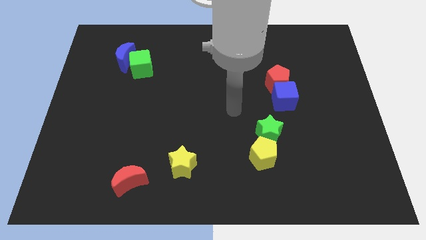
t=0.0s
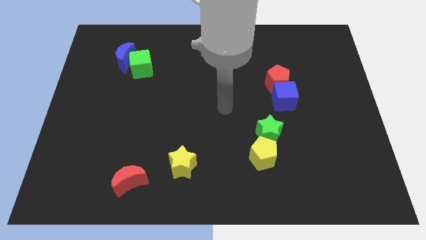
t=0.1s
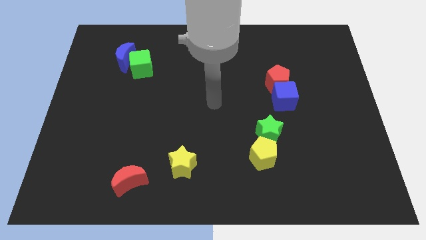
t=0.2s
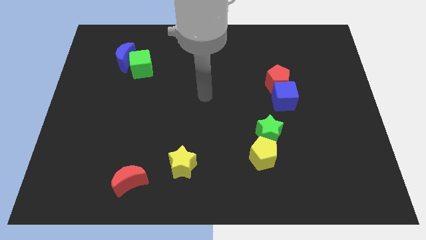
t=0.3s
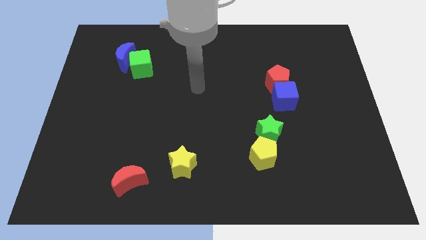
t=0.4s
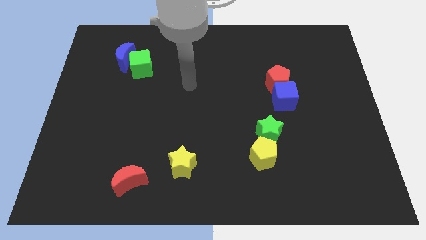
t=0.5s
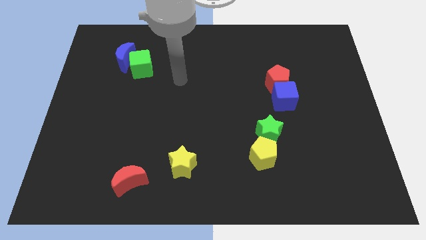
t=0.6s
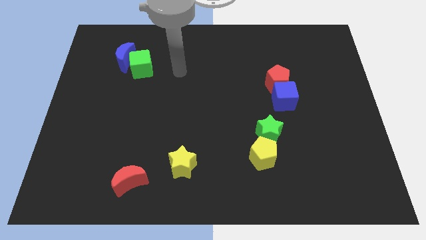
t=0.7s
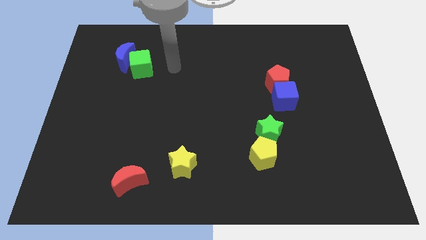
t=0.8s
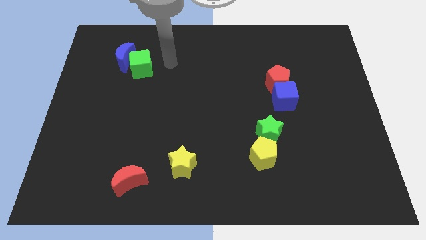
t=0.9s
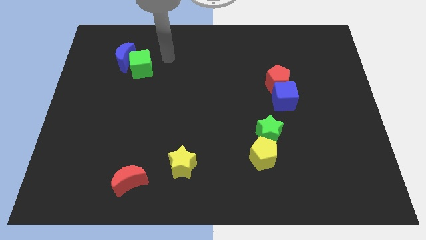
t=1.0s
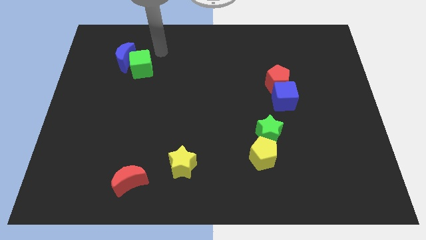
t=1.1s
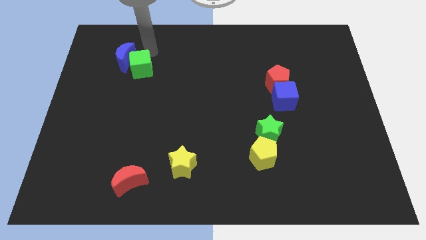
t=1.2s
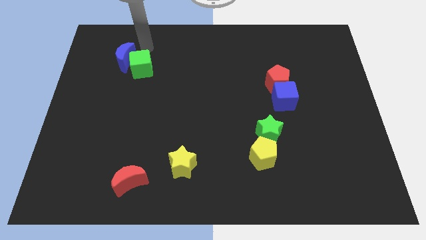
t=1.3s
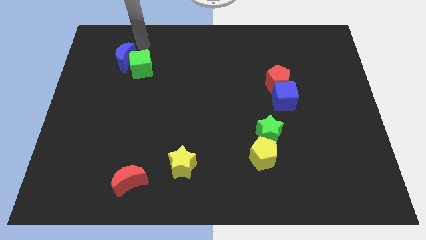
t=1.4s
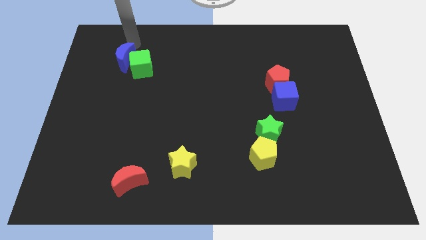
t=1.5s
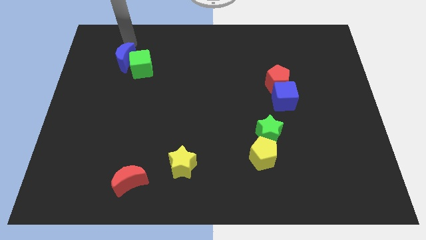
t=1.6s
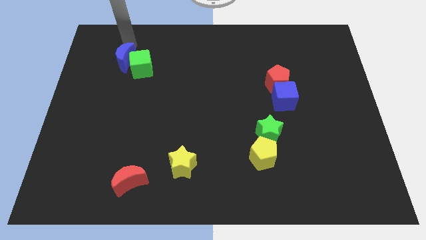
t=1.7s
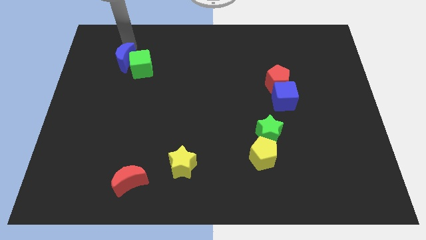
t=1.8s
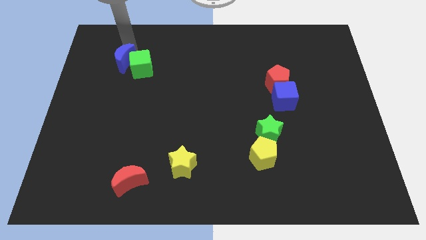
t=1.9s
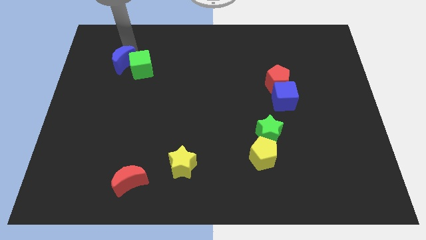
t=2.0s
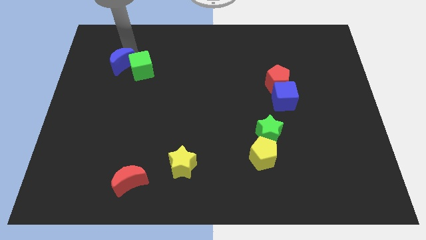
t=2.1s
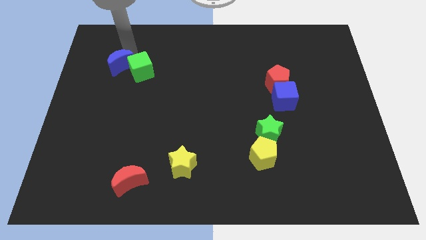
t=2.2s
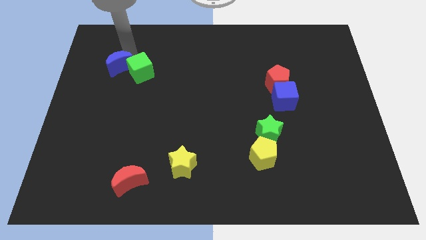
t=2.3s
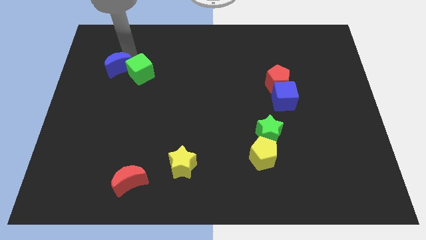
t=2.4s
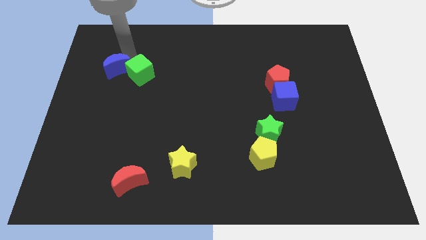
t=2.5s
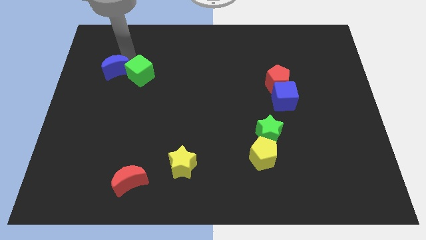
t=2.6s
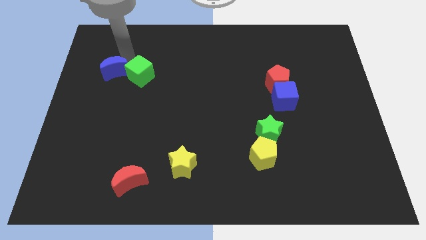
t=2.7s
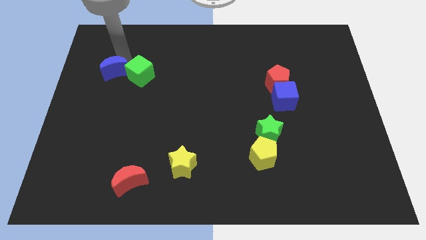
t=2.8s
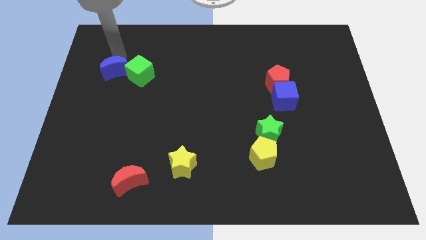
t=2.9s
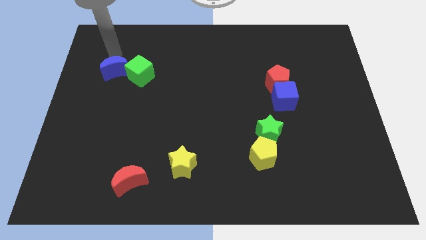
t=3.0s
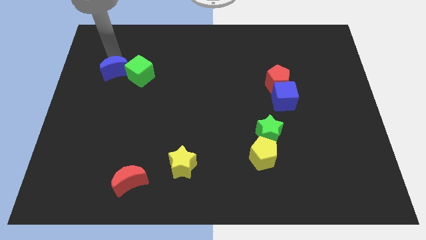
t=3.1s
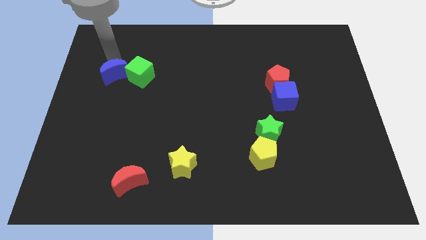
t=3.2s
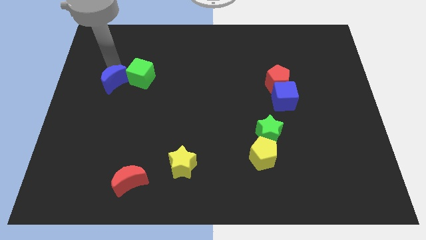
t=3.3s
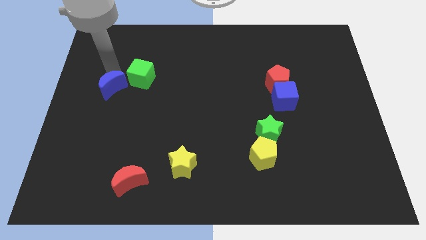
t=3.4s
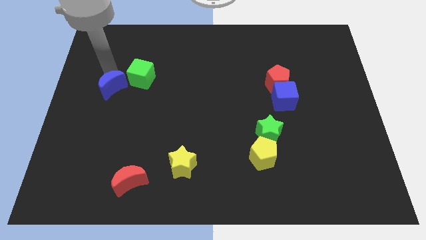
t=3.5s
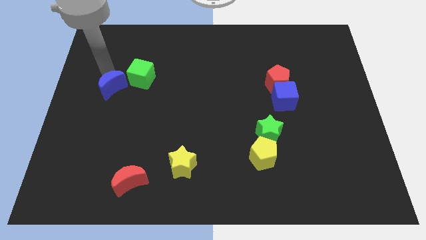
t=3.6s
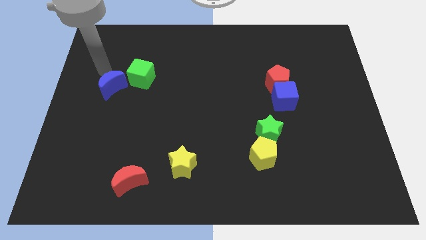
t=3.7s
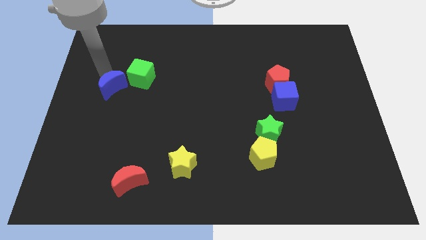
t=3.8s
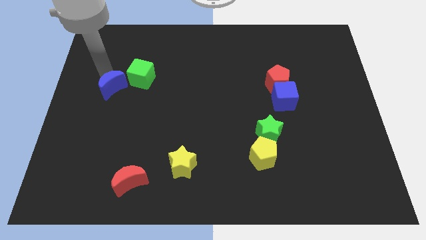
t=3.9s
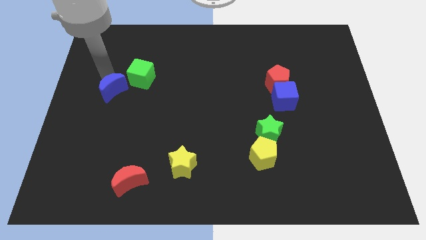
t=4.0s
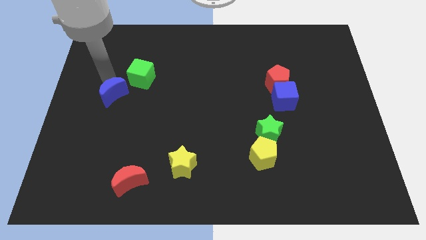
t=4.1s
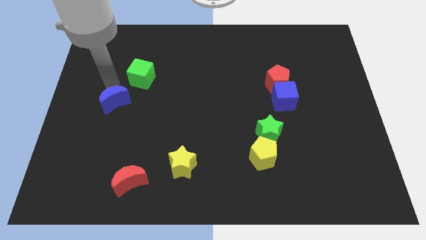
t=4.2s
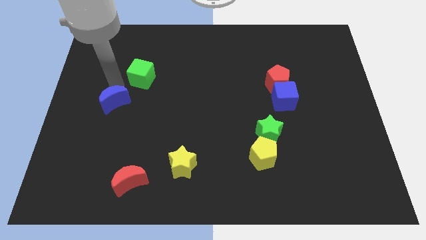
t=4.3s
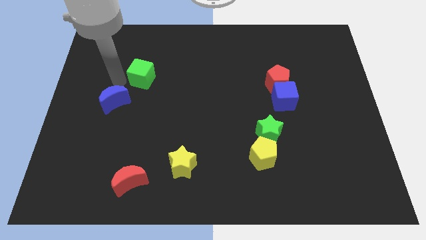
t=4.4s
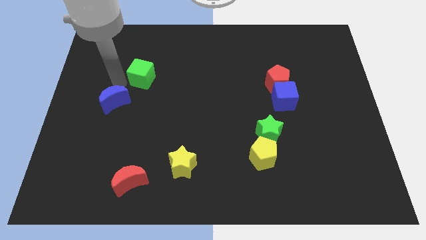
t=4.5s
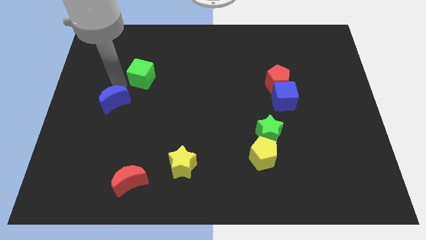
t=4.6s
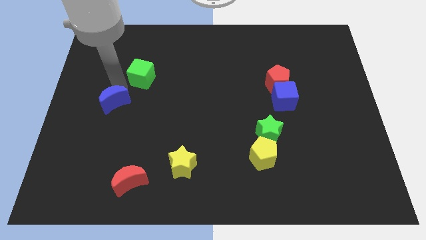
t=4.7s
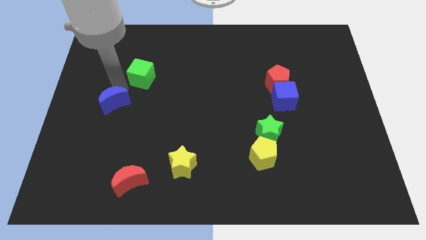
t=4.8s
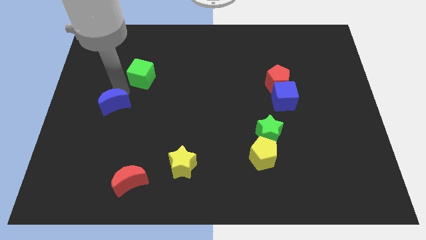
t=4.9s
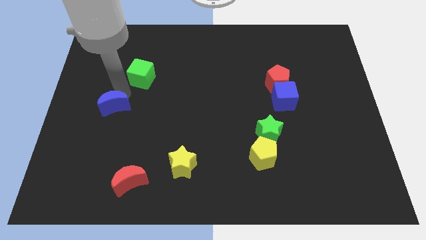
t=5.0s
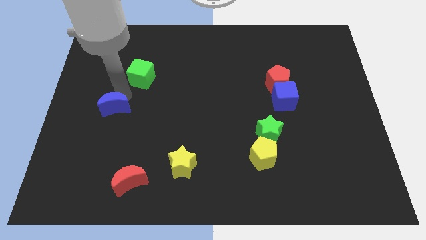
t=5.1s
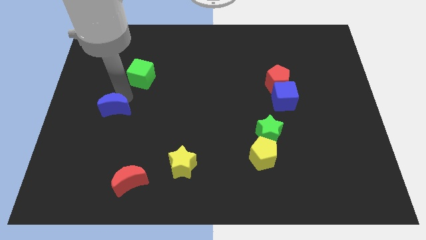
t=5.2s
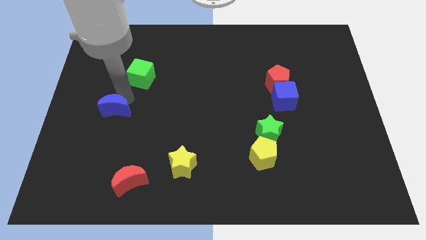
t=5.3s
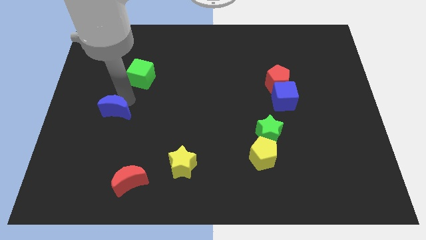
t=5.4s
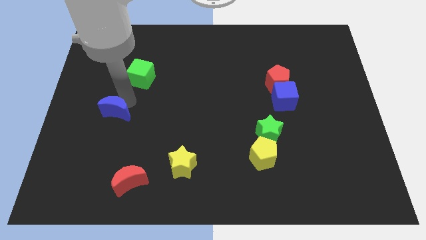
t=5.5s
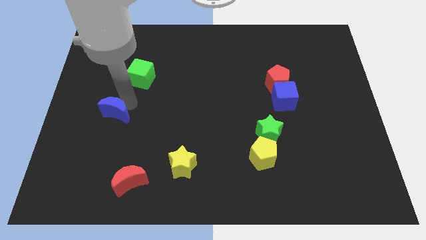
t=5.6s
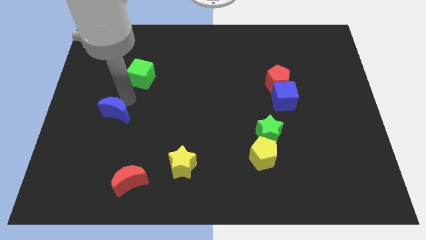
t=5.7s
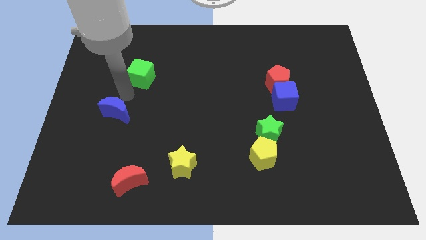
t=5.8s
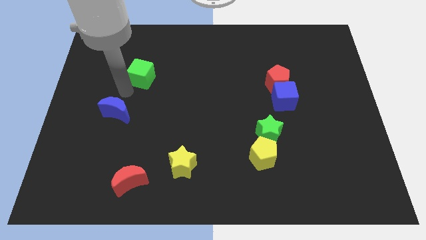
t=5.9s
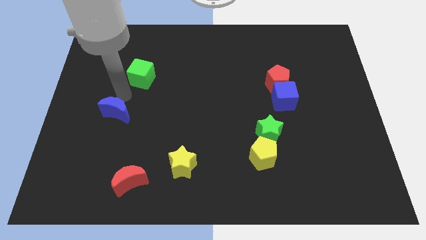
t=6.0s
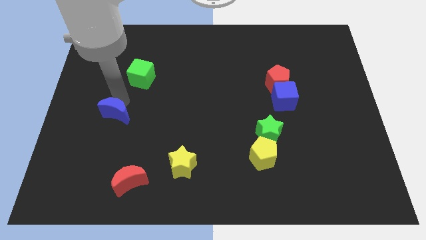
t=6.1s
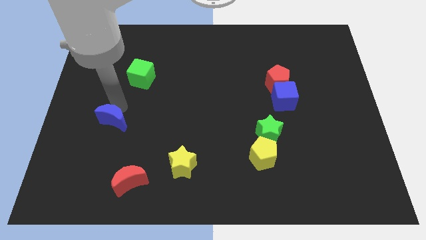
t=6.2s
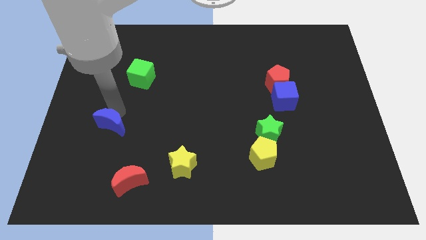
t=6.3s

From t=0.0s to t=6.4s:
slide the blue moon down

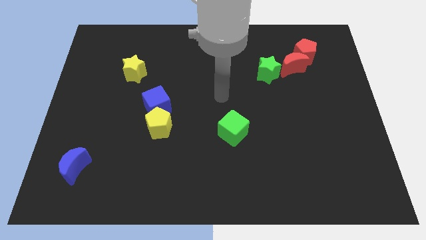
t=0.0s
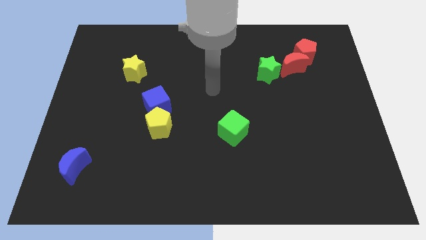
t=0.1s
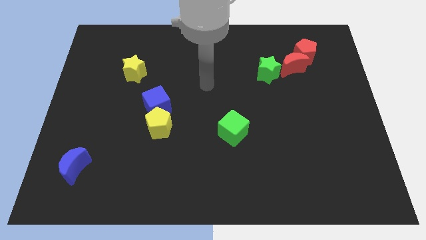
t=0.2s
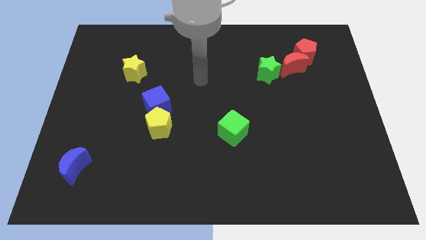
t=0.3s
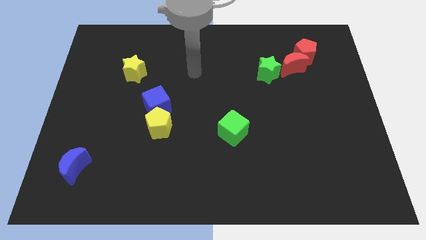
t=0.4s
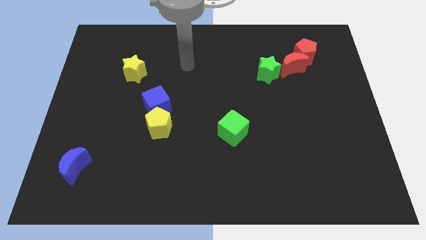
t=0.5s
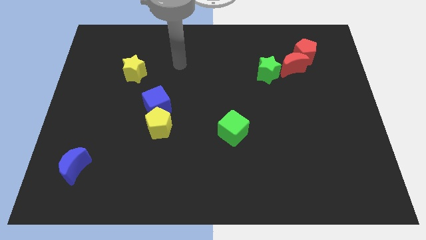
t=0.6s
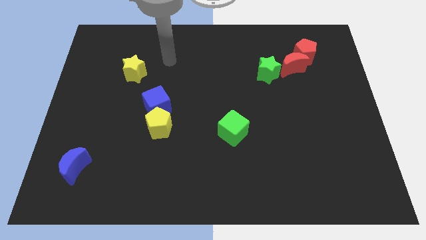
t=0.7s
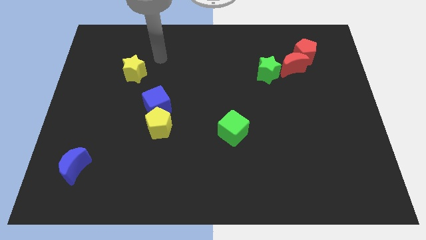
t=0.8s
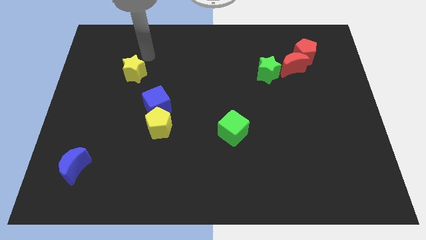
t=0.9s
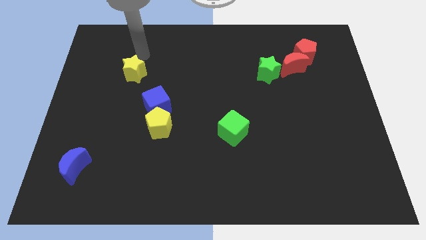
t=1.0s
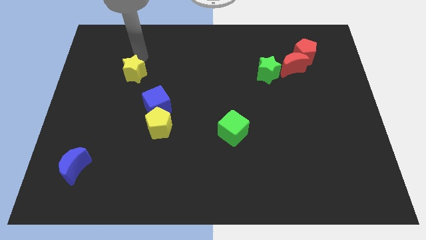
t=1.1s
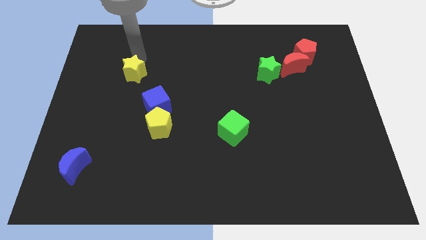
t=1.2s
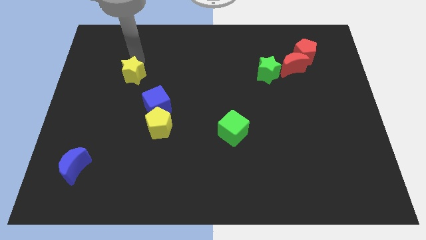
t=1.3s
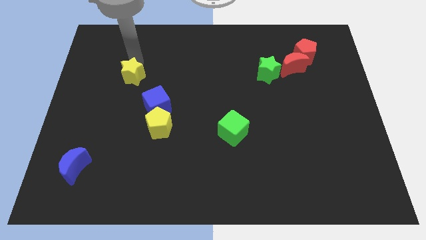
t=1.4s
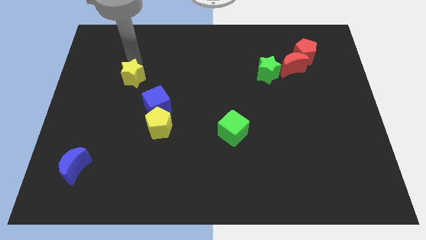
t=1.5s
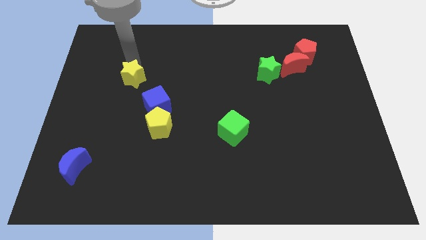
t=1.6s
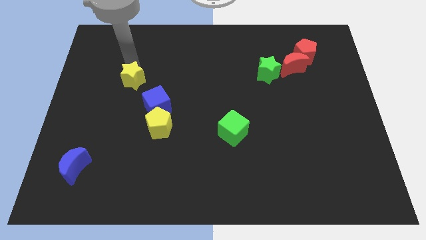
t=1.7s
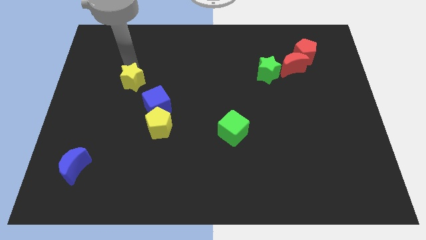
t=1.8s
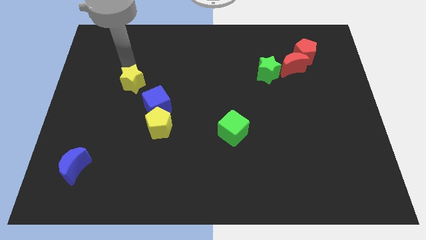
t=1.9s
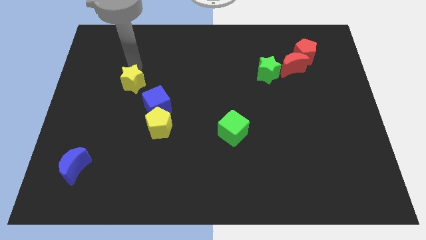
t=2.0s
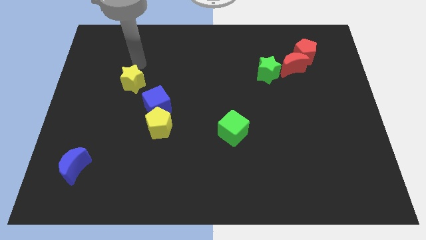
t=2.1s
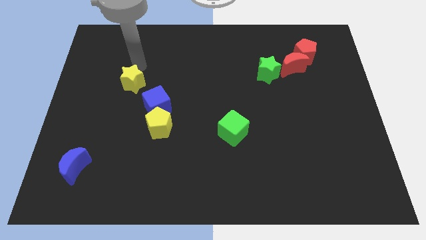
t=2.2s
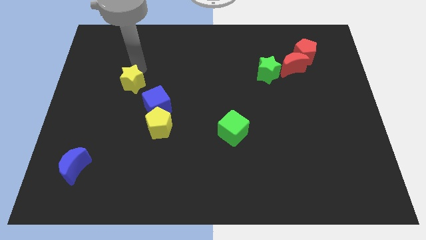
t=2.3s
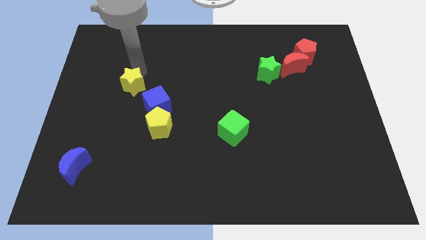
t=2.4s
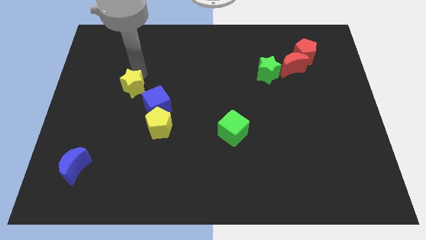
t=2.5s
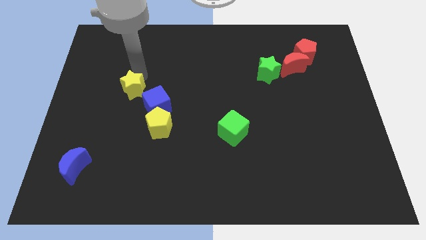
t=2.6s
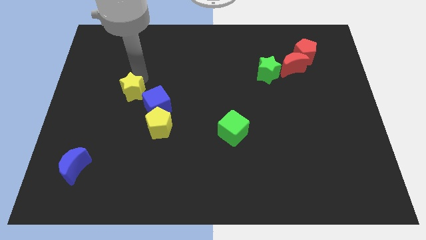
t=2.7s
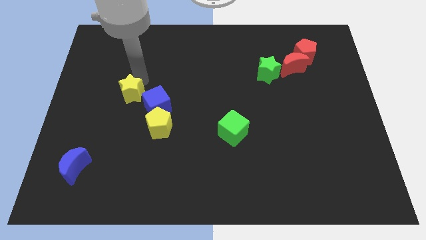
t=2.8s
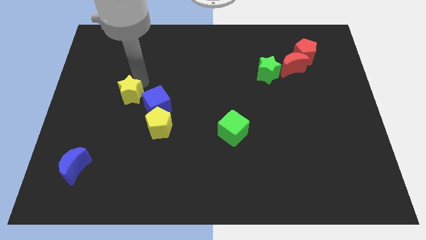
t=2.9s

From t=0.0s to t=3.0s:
move the yellow star downwards a bit
